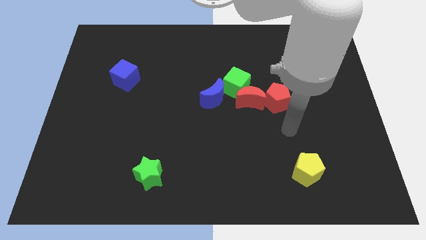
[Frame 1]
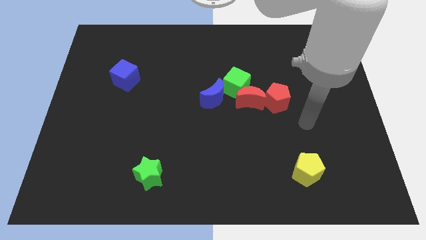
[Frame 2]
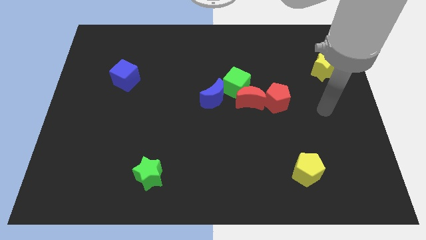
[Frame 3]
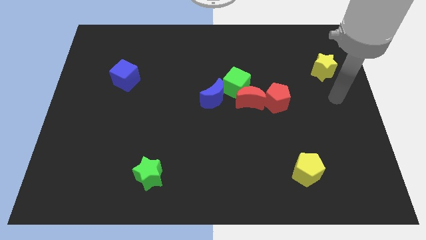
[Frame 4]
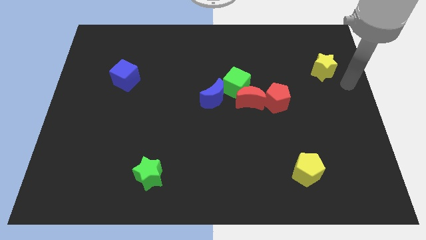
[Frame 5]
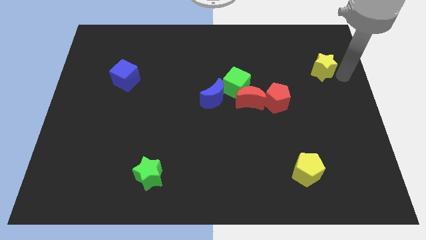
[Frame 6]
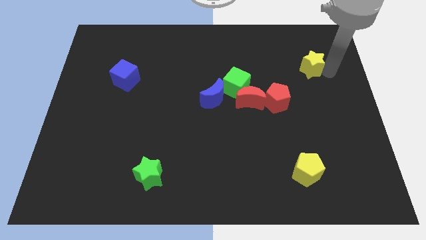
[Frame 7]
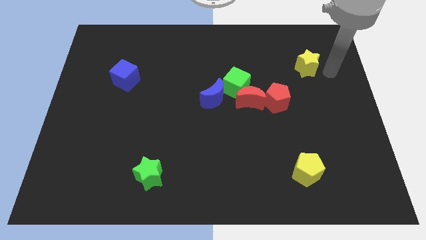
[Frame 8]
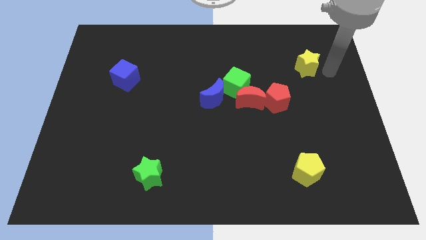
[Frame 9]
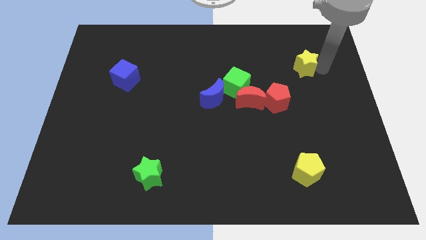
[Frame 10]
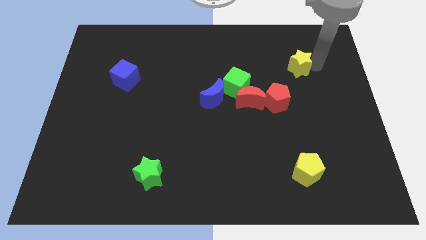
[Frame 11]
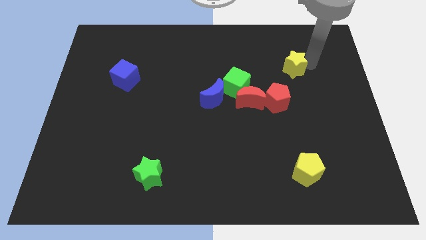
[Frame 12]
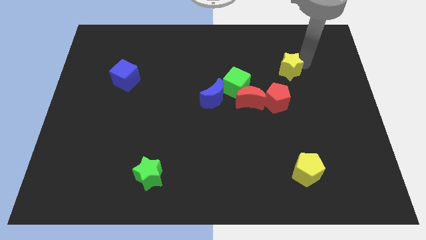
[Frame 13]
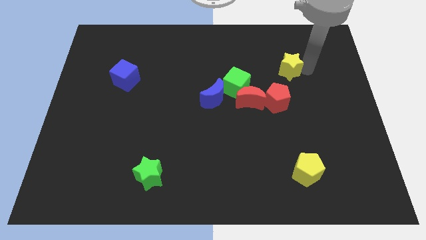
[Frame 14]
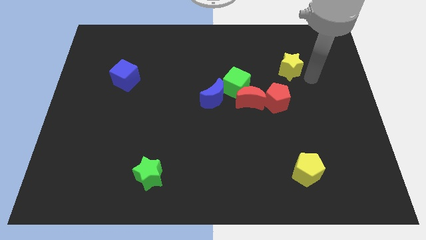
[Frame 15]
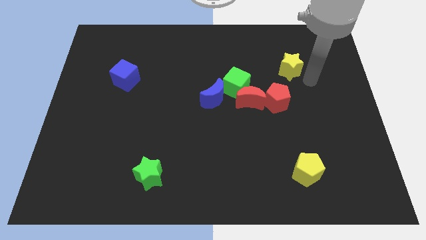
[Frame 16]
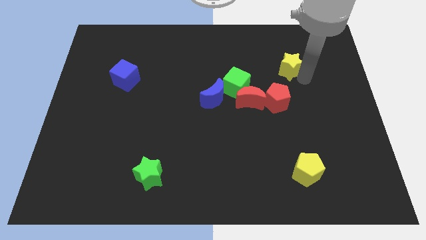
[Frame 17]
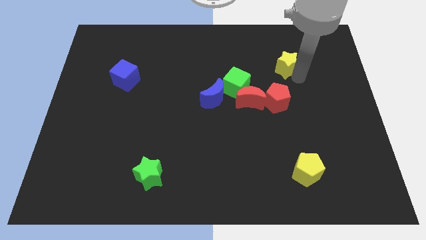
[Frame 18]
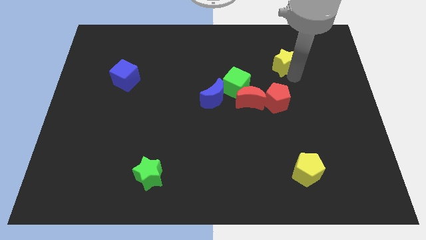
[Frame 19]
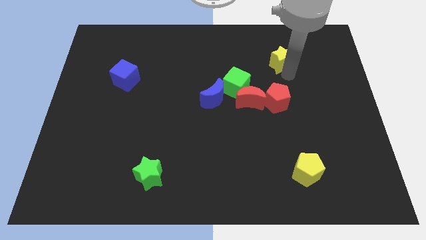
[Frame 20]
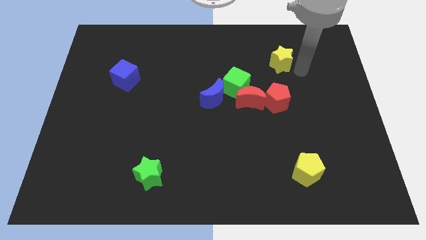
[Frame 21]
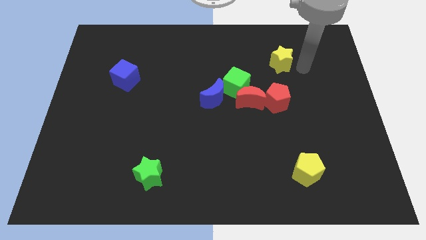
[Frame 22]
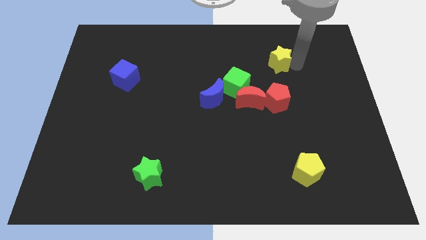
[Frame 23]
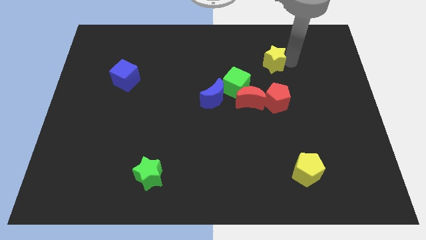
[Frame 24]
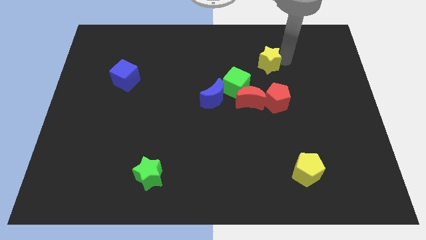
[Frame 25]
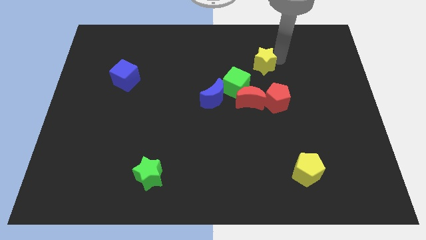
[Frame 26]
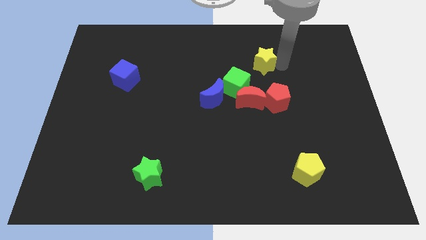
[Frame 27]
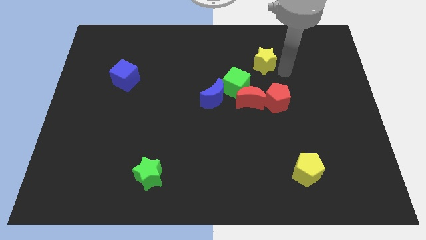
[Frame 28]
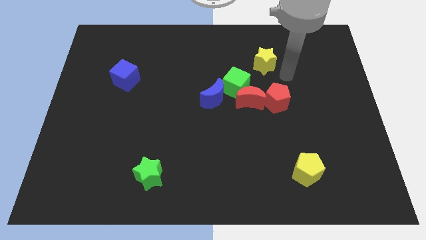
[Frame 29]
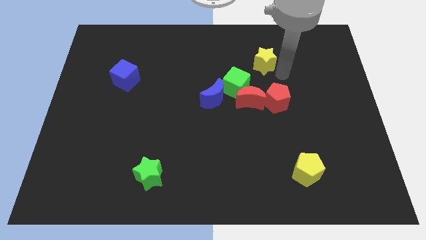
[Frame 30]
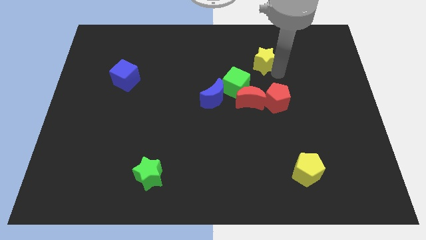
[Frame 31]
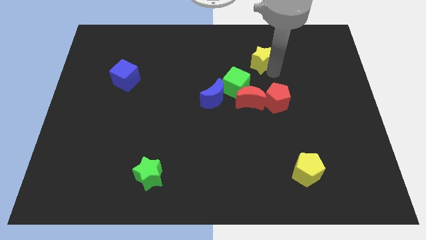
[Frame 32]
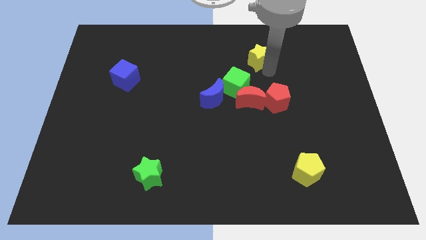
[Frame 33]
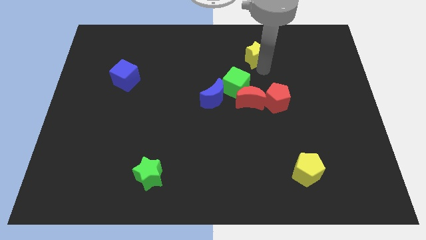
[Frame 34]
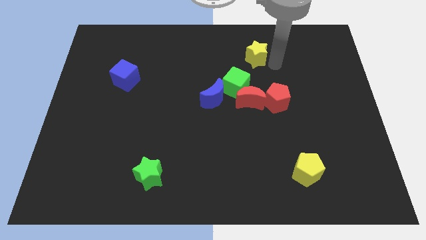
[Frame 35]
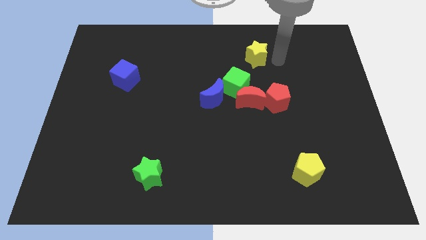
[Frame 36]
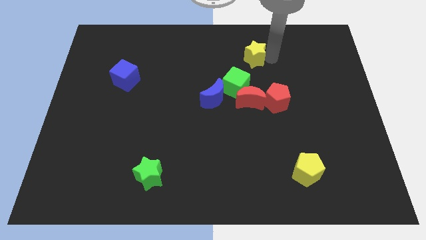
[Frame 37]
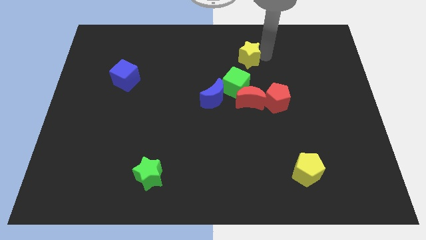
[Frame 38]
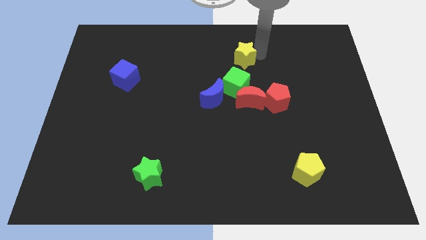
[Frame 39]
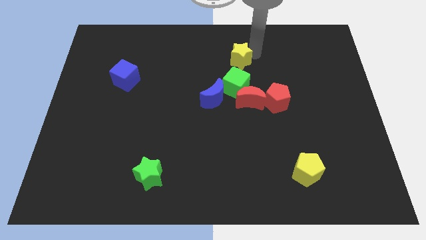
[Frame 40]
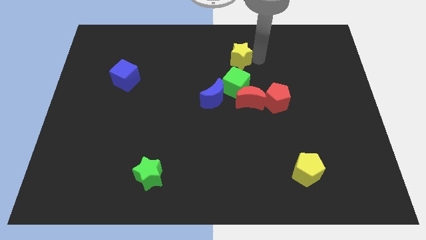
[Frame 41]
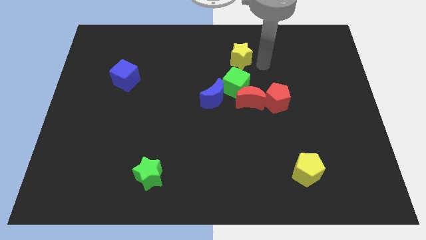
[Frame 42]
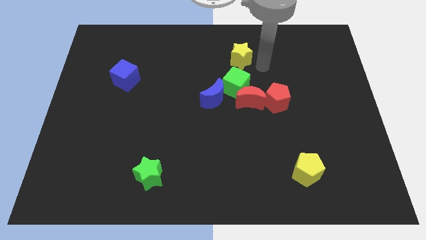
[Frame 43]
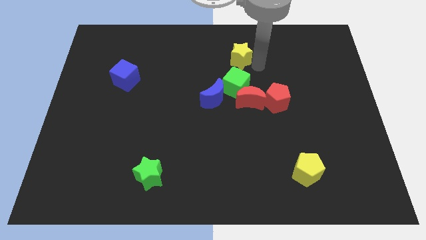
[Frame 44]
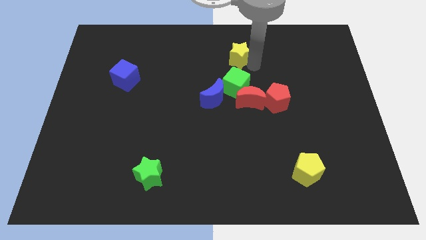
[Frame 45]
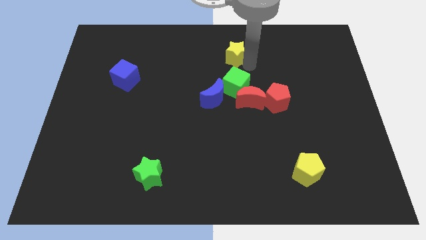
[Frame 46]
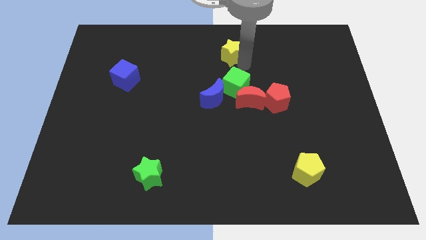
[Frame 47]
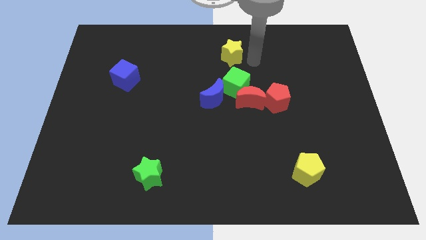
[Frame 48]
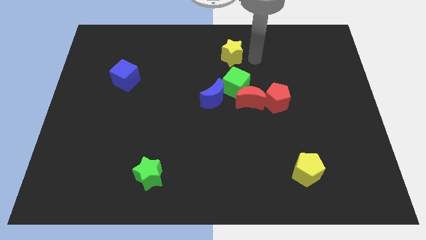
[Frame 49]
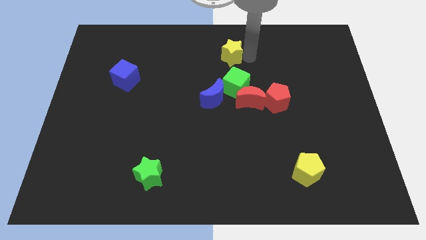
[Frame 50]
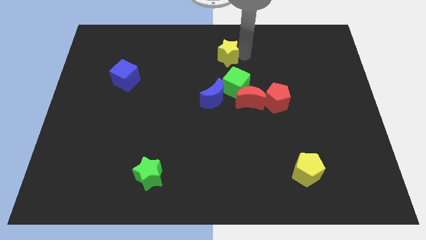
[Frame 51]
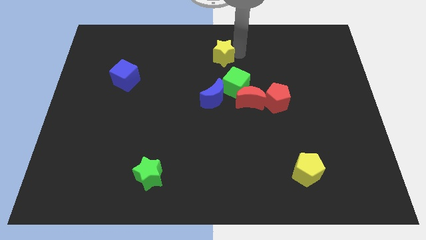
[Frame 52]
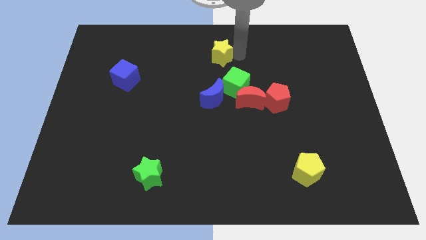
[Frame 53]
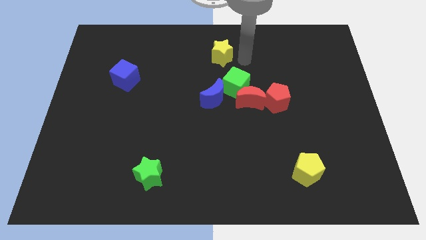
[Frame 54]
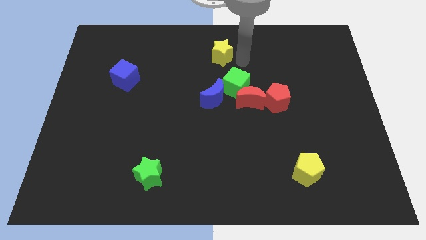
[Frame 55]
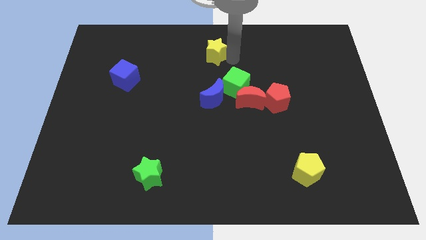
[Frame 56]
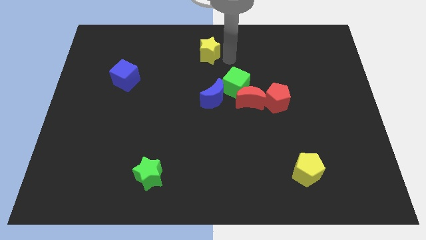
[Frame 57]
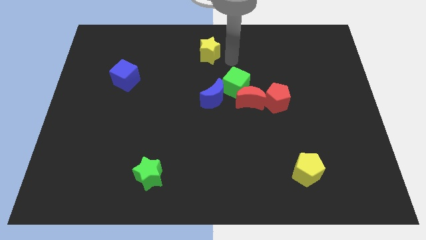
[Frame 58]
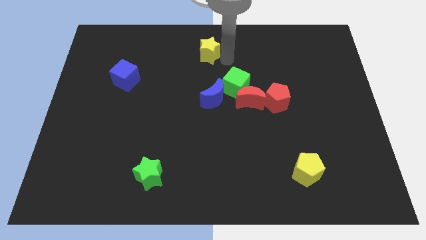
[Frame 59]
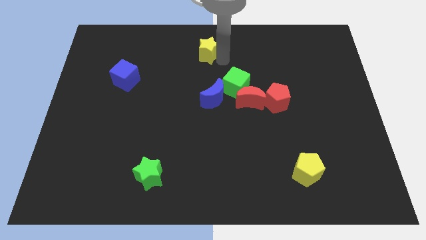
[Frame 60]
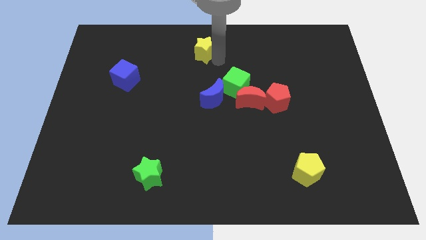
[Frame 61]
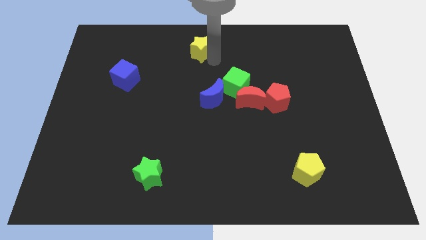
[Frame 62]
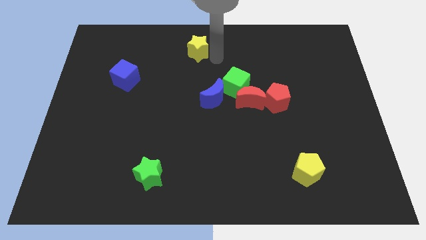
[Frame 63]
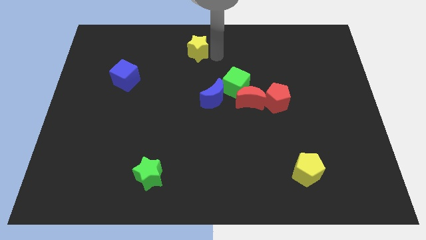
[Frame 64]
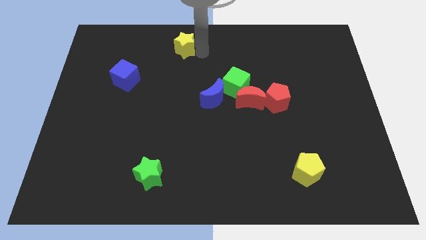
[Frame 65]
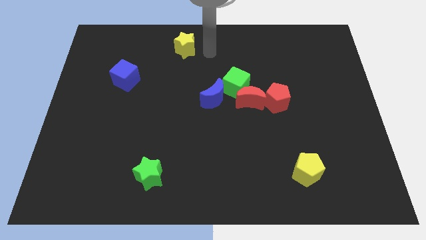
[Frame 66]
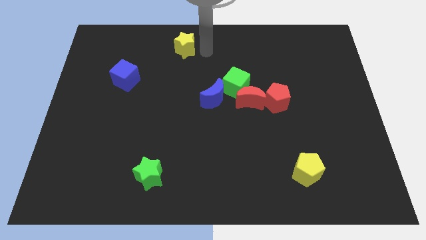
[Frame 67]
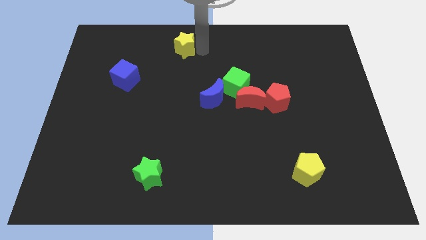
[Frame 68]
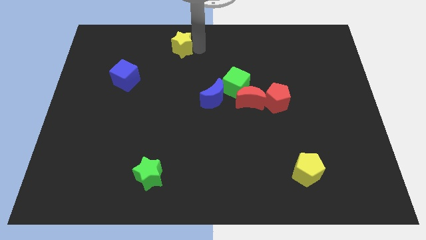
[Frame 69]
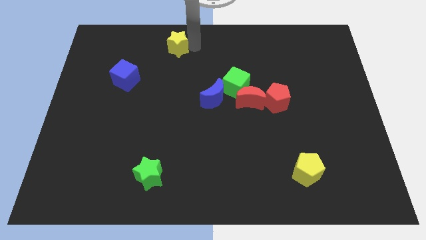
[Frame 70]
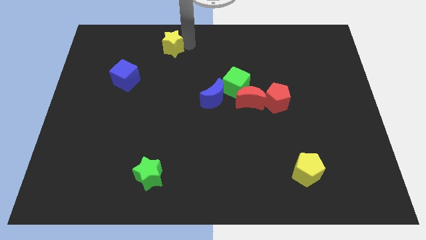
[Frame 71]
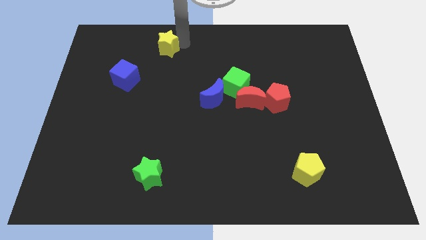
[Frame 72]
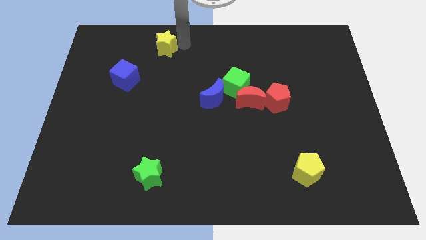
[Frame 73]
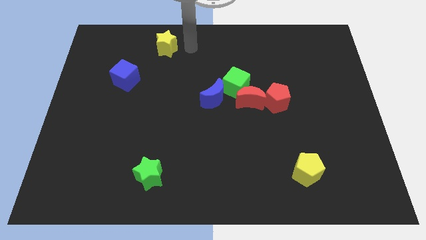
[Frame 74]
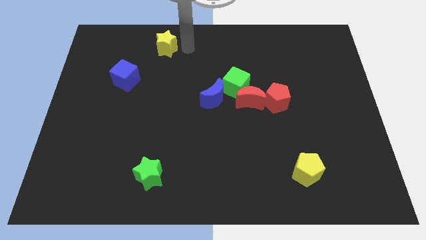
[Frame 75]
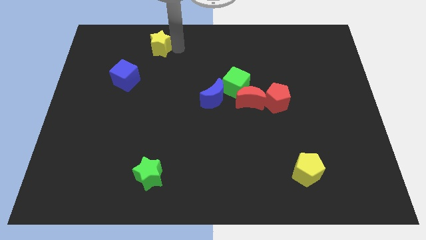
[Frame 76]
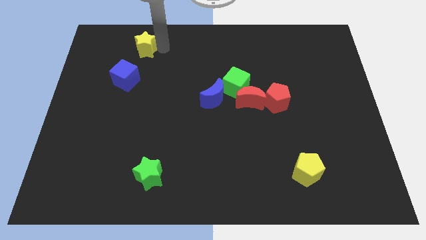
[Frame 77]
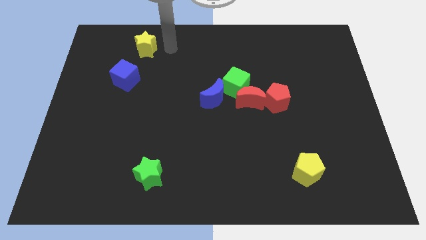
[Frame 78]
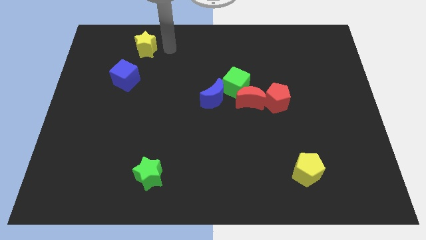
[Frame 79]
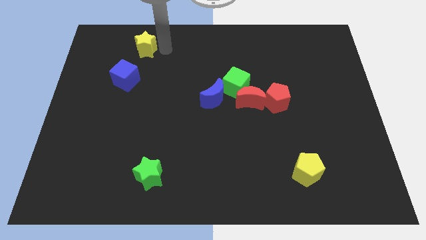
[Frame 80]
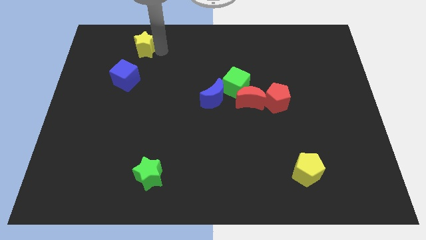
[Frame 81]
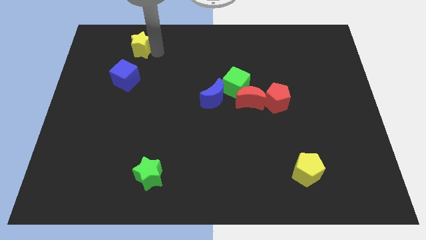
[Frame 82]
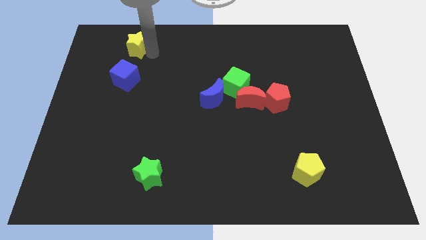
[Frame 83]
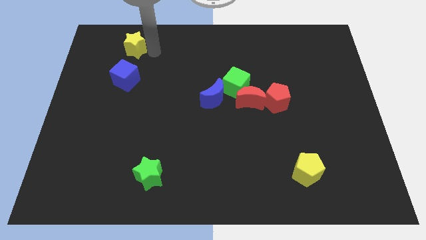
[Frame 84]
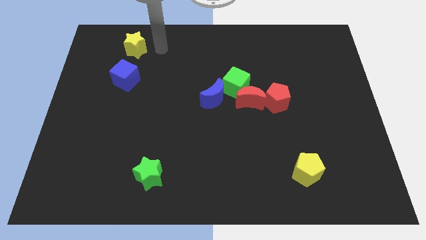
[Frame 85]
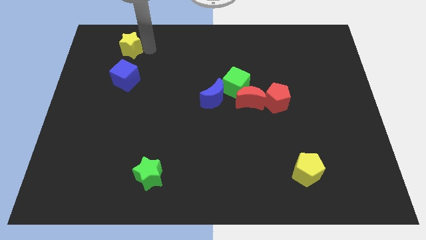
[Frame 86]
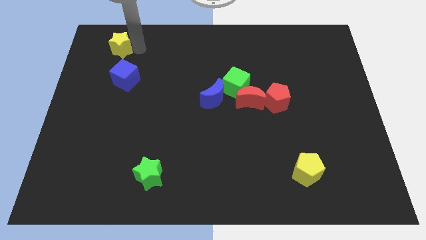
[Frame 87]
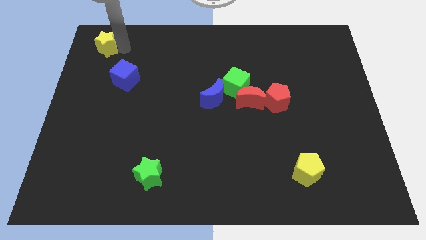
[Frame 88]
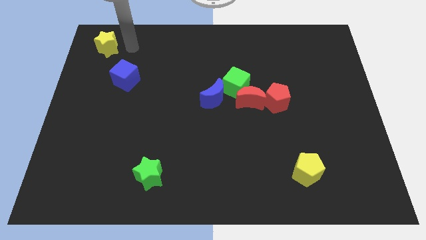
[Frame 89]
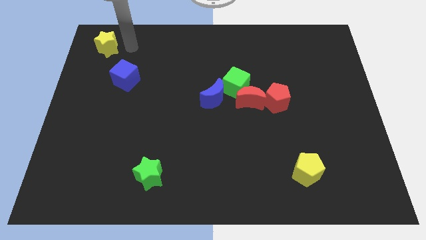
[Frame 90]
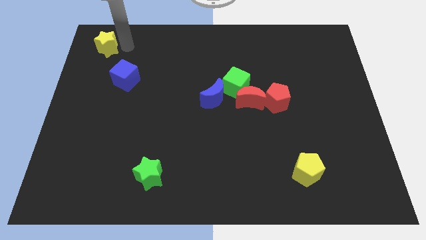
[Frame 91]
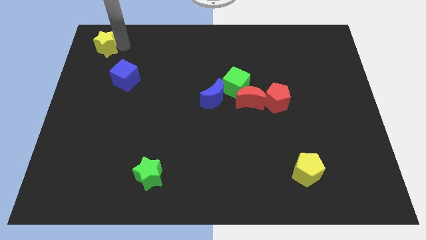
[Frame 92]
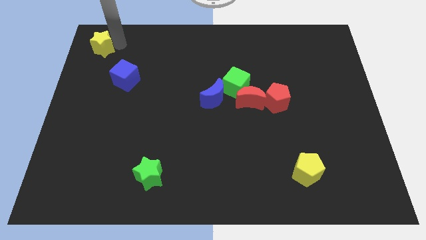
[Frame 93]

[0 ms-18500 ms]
push the yellow star to the upper left corner
